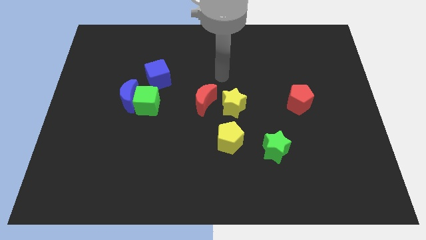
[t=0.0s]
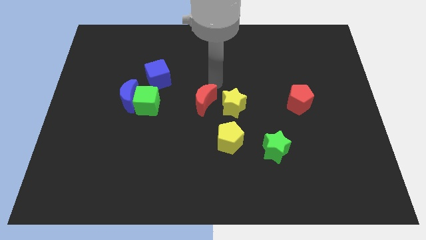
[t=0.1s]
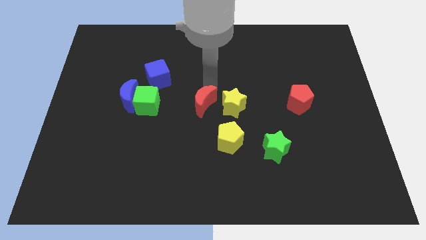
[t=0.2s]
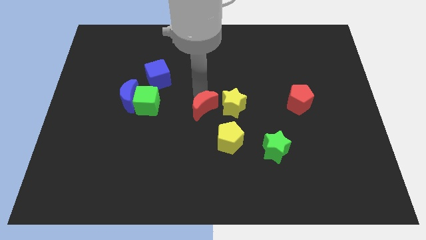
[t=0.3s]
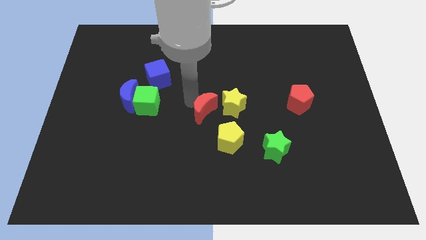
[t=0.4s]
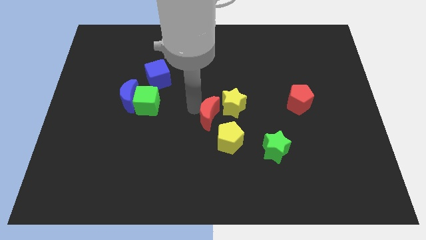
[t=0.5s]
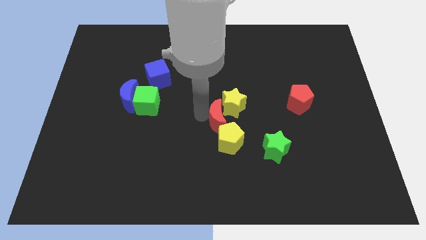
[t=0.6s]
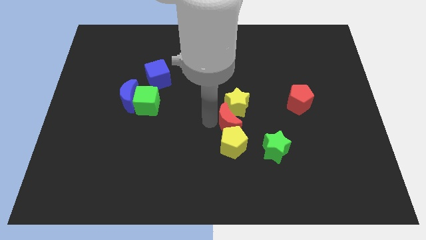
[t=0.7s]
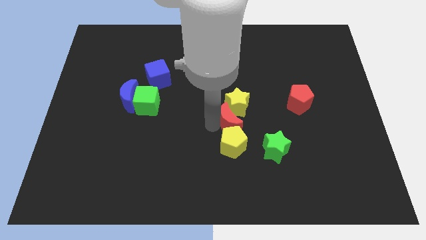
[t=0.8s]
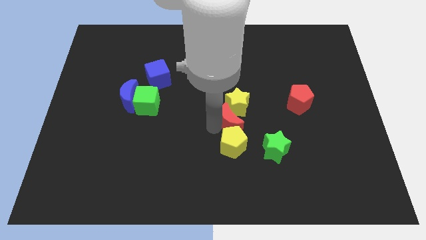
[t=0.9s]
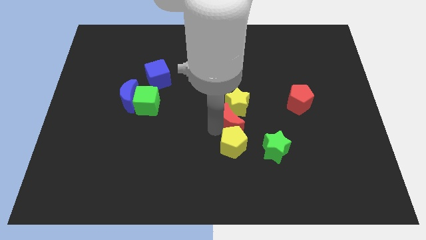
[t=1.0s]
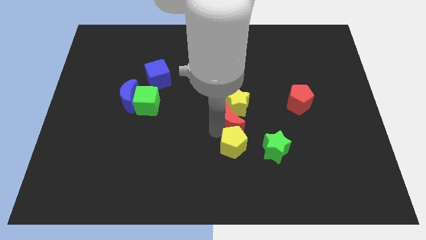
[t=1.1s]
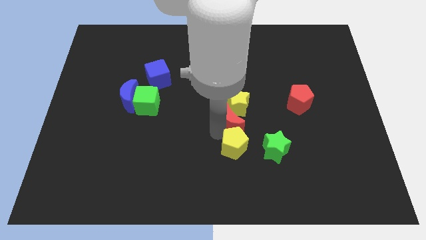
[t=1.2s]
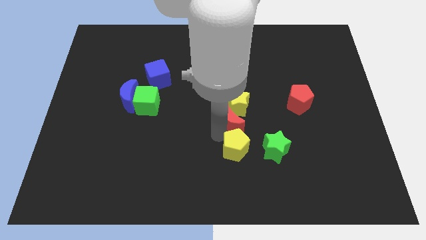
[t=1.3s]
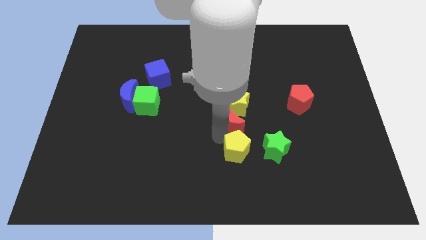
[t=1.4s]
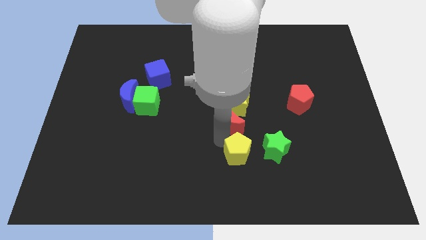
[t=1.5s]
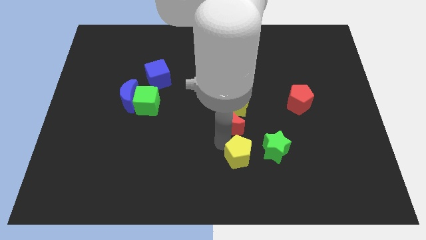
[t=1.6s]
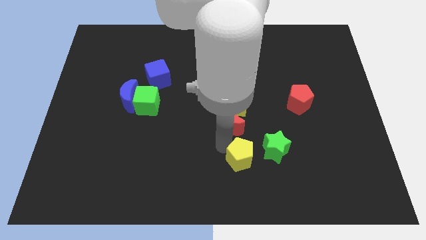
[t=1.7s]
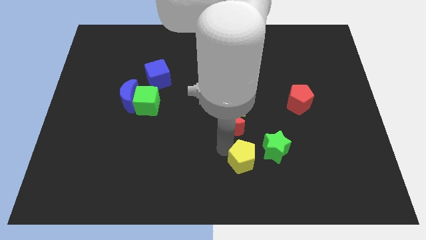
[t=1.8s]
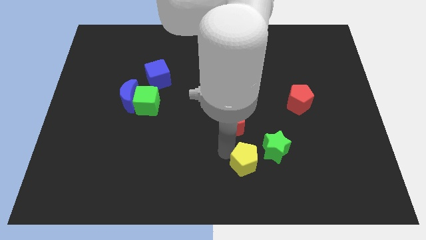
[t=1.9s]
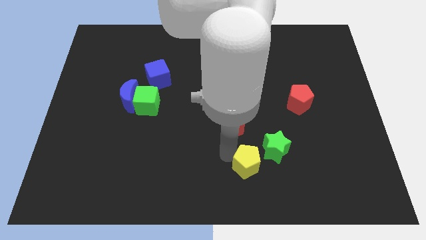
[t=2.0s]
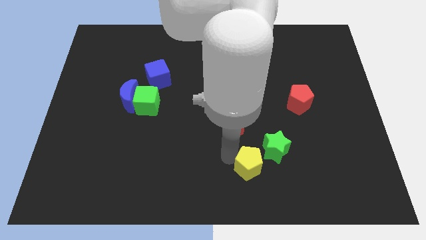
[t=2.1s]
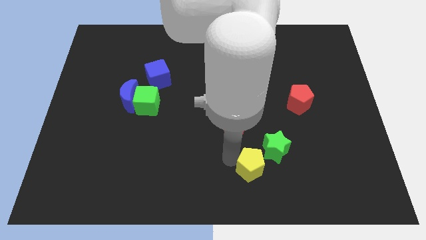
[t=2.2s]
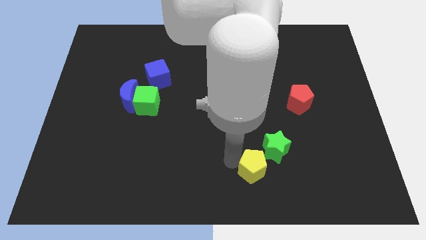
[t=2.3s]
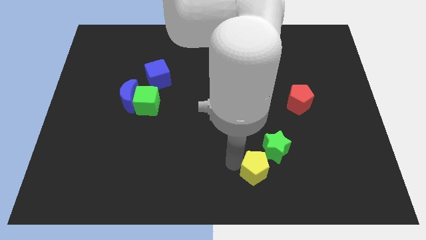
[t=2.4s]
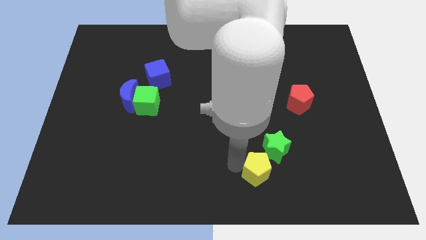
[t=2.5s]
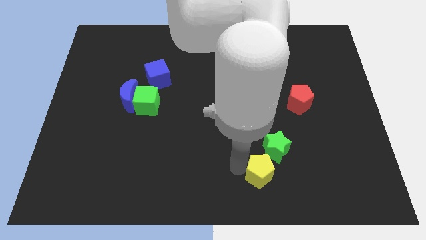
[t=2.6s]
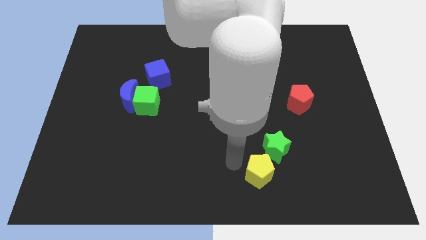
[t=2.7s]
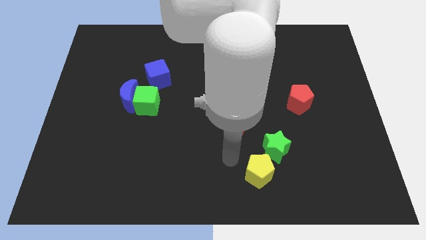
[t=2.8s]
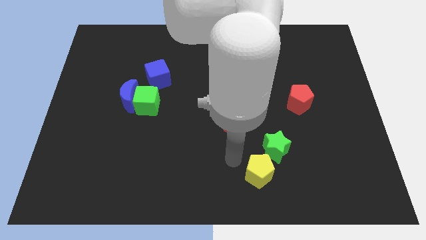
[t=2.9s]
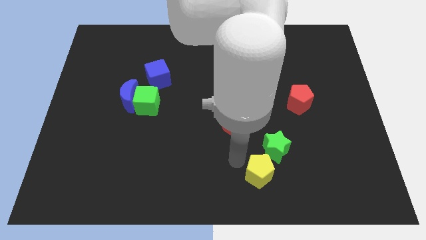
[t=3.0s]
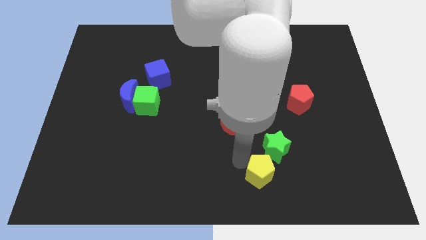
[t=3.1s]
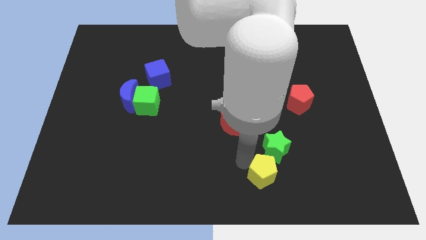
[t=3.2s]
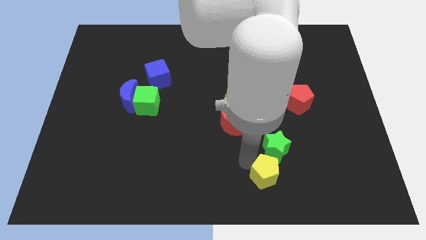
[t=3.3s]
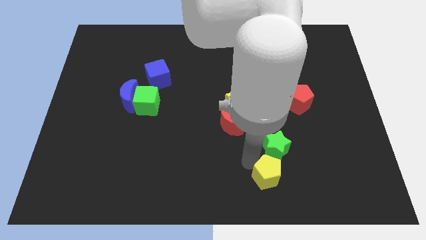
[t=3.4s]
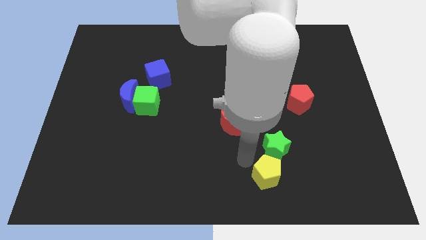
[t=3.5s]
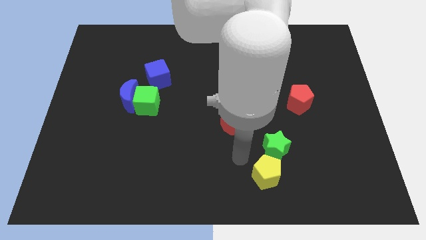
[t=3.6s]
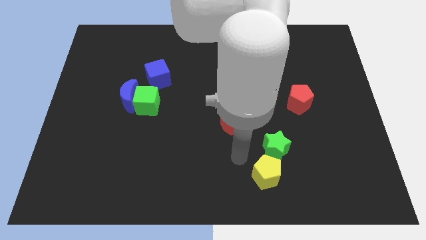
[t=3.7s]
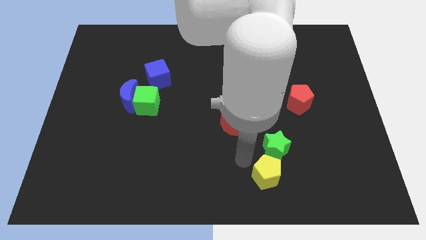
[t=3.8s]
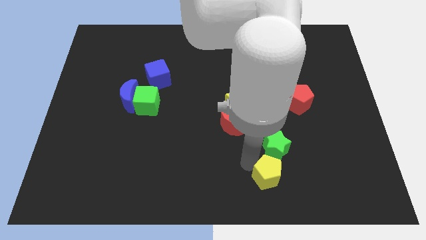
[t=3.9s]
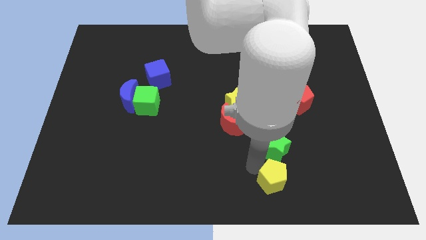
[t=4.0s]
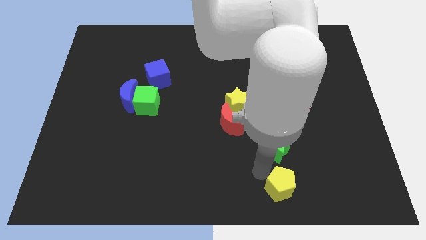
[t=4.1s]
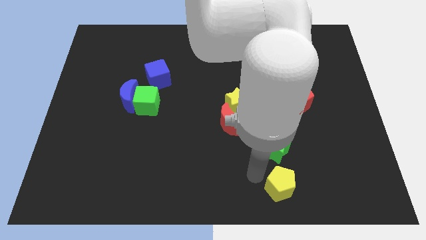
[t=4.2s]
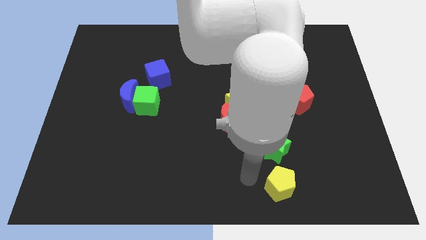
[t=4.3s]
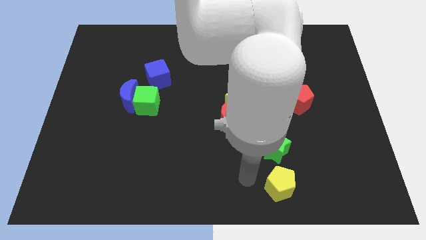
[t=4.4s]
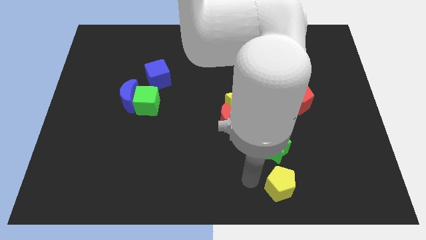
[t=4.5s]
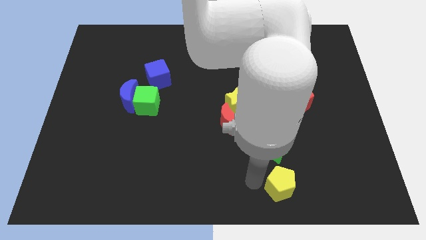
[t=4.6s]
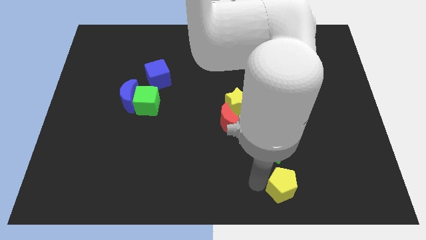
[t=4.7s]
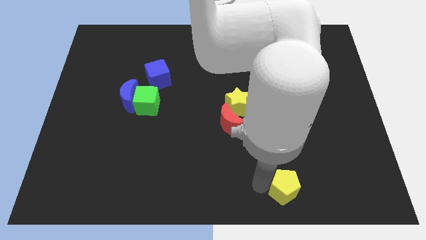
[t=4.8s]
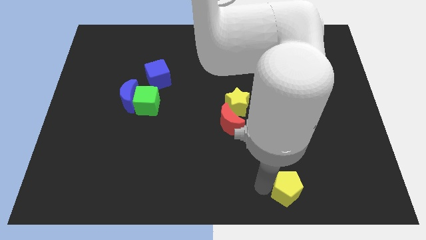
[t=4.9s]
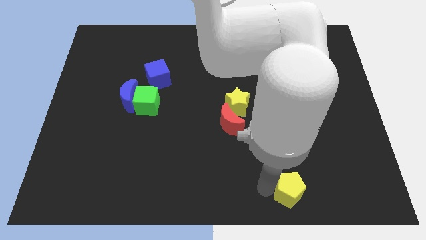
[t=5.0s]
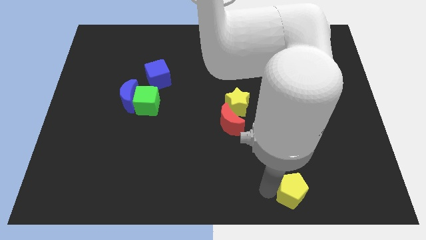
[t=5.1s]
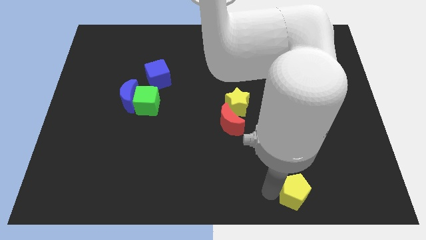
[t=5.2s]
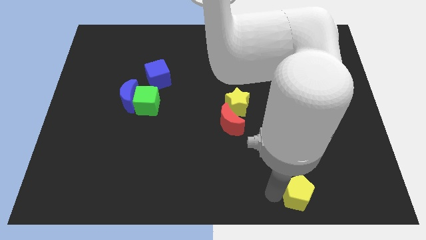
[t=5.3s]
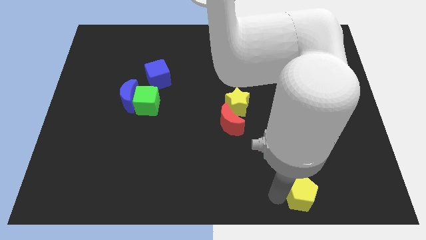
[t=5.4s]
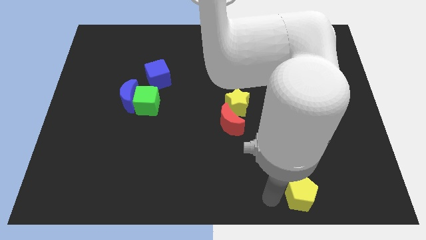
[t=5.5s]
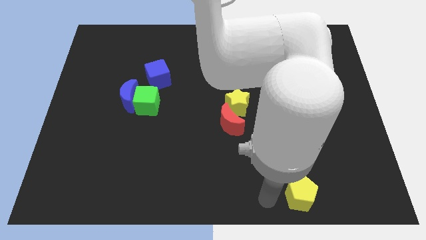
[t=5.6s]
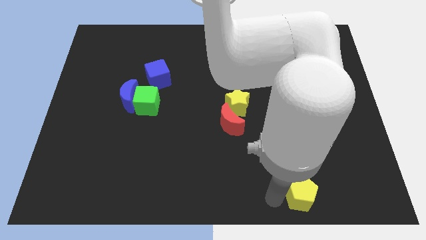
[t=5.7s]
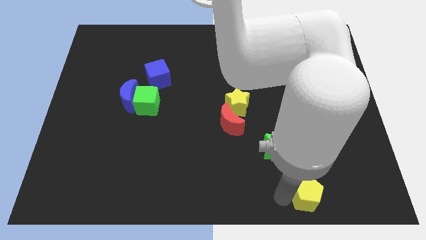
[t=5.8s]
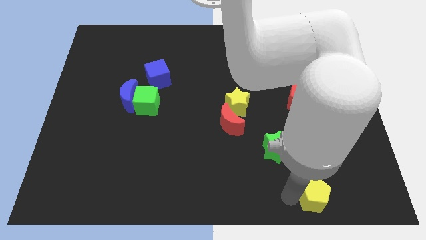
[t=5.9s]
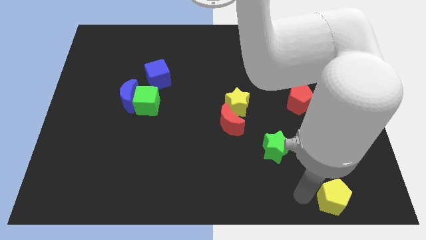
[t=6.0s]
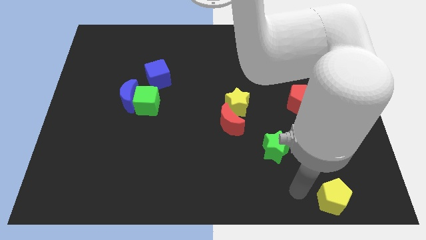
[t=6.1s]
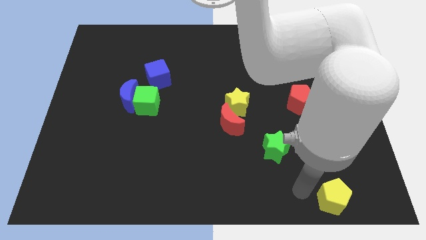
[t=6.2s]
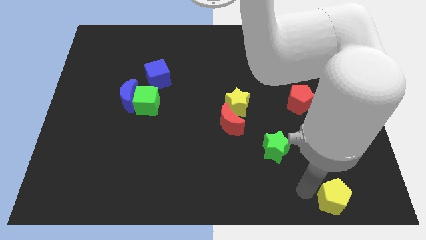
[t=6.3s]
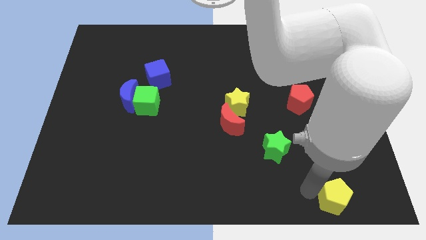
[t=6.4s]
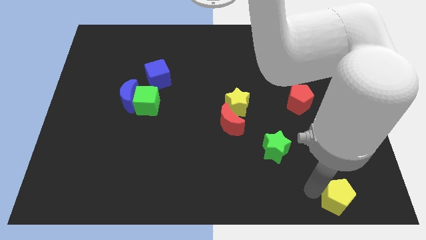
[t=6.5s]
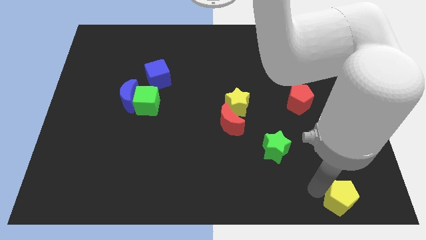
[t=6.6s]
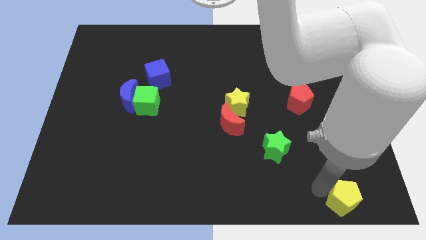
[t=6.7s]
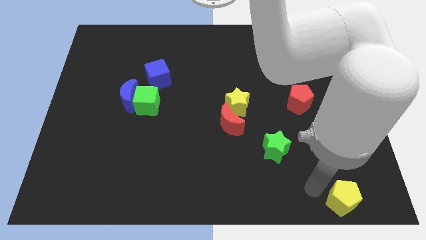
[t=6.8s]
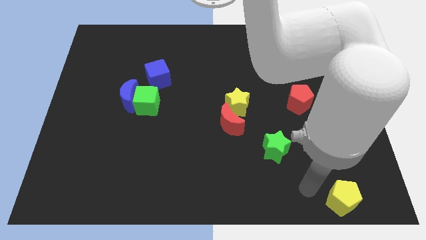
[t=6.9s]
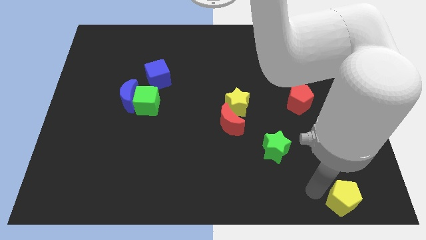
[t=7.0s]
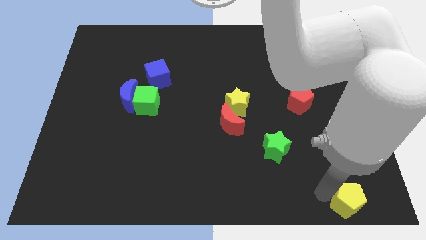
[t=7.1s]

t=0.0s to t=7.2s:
slide the yellow pentagon to the bottom right of the board

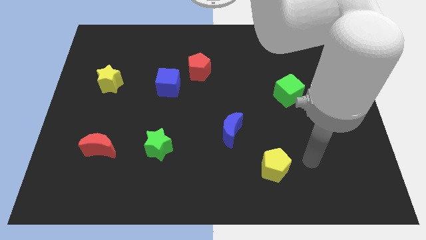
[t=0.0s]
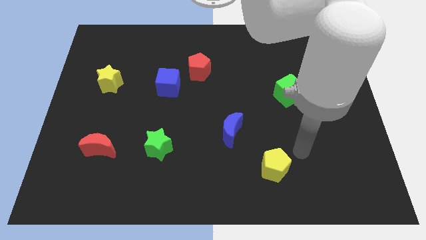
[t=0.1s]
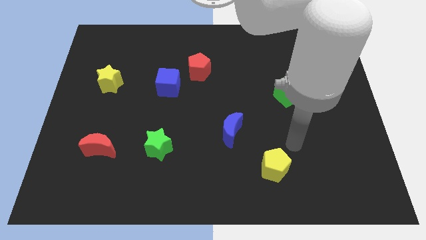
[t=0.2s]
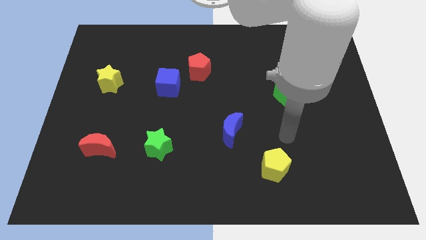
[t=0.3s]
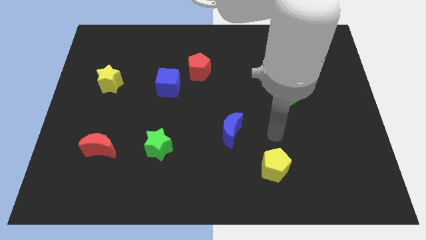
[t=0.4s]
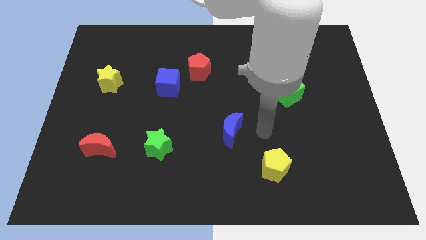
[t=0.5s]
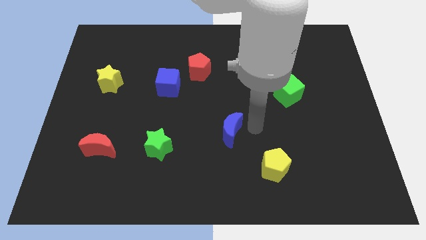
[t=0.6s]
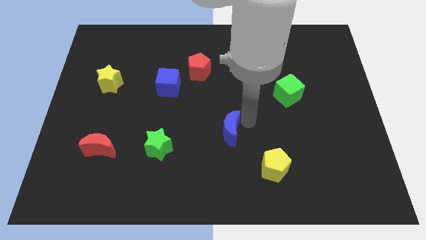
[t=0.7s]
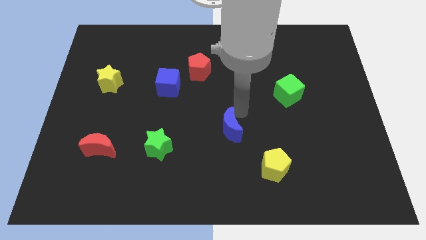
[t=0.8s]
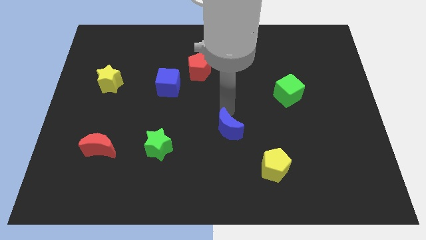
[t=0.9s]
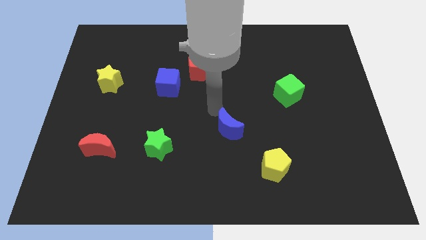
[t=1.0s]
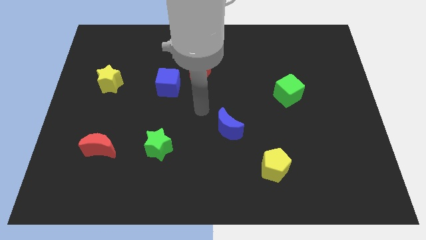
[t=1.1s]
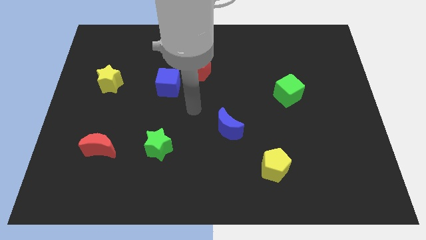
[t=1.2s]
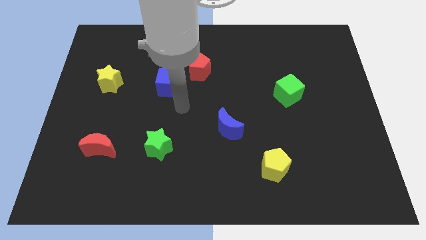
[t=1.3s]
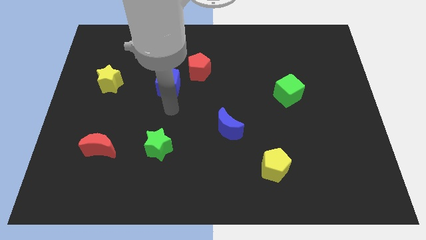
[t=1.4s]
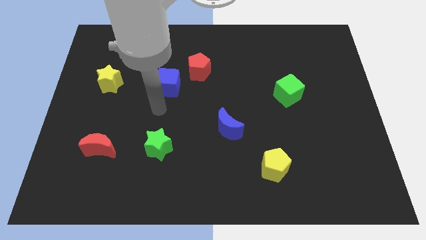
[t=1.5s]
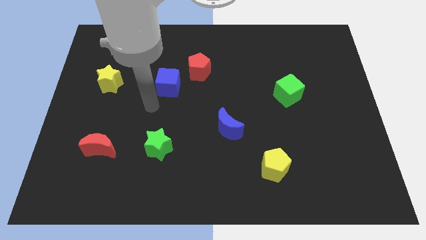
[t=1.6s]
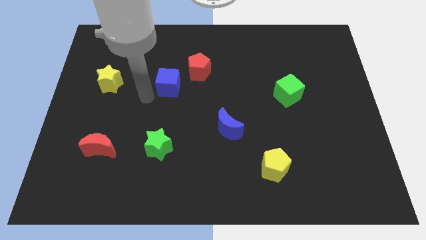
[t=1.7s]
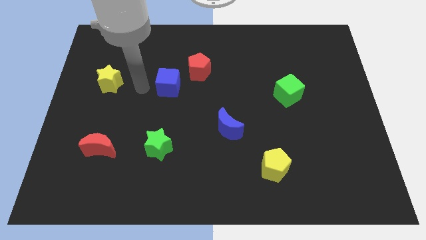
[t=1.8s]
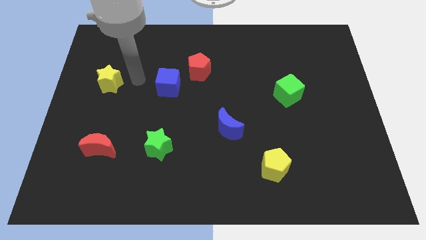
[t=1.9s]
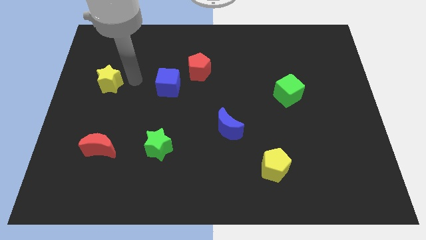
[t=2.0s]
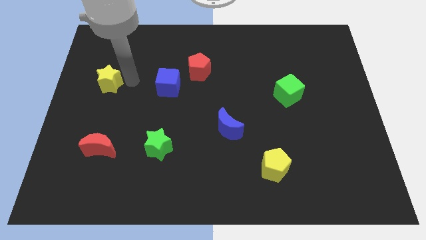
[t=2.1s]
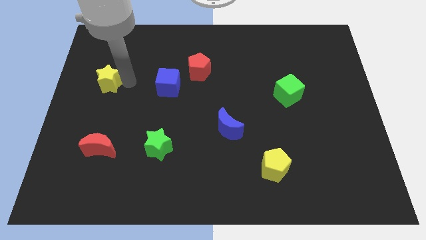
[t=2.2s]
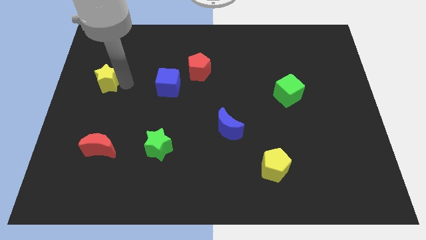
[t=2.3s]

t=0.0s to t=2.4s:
put the yellow star to the left side
